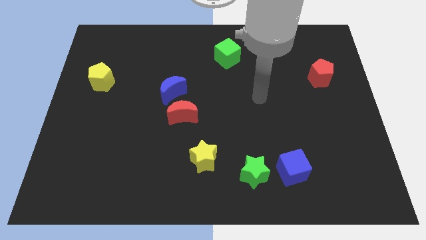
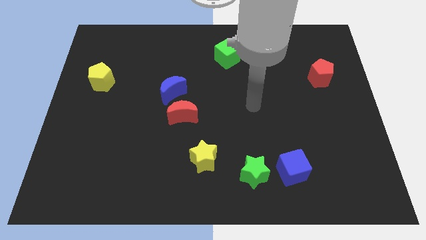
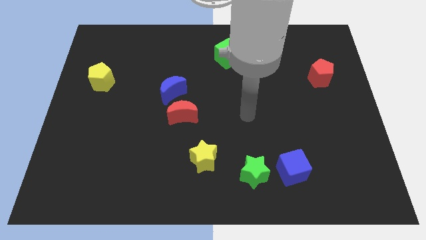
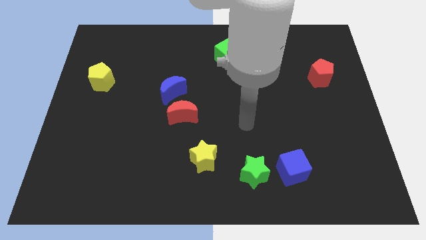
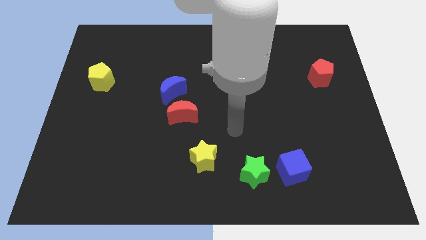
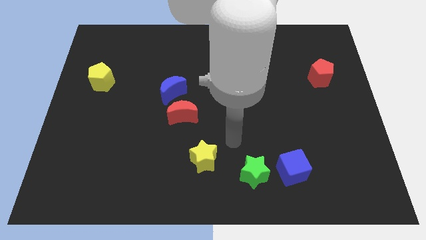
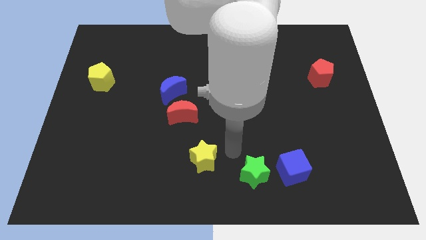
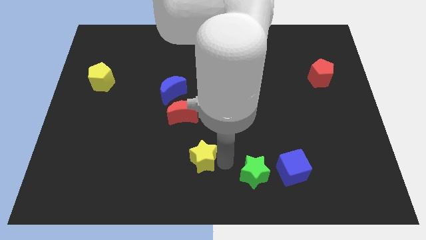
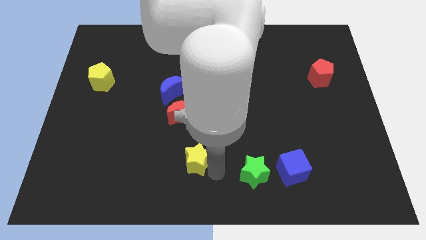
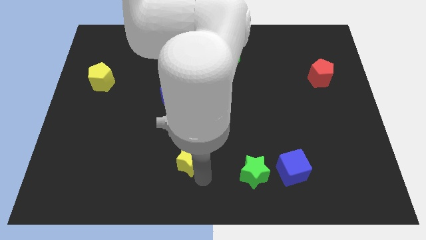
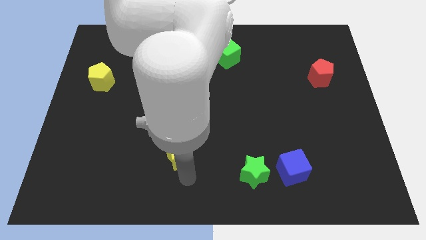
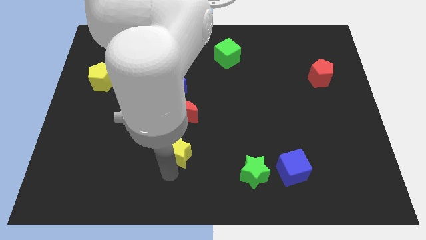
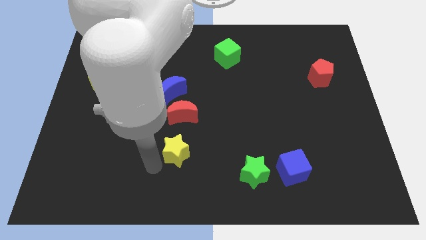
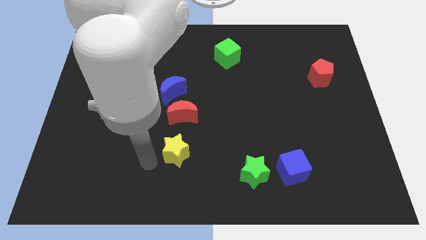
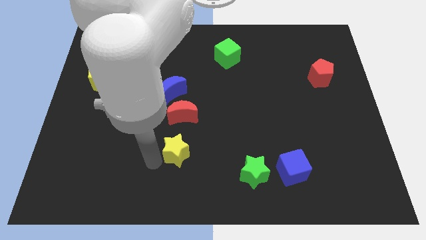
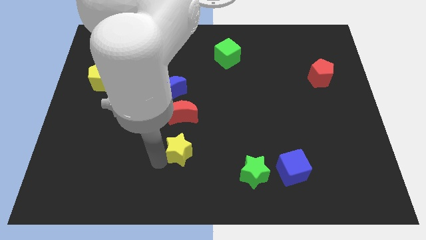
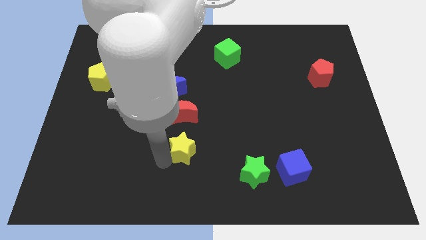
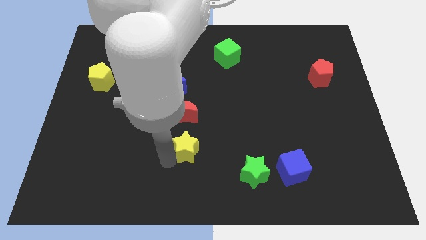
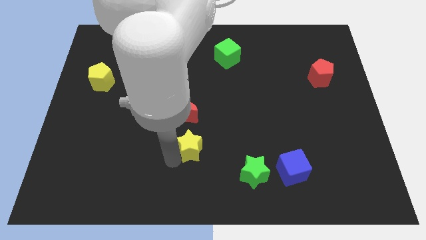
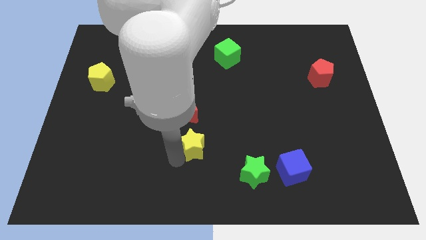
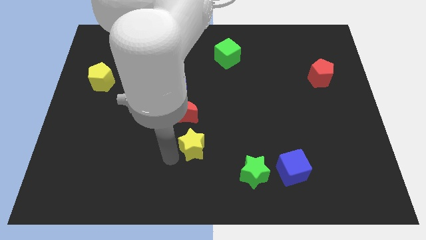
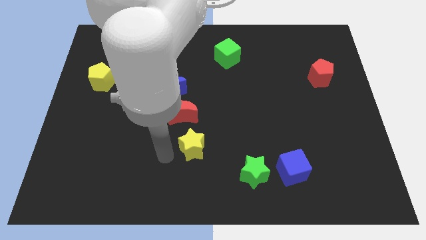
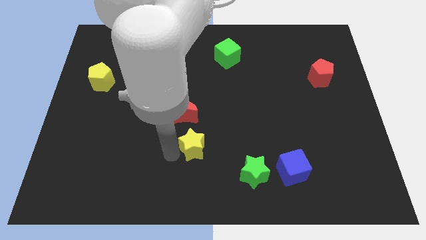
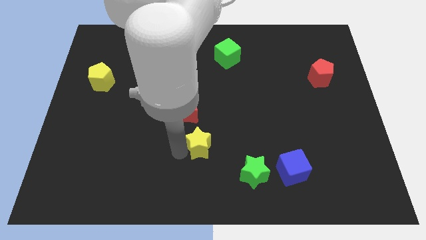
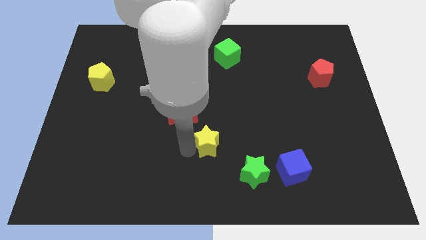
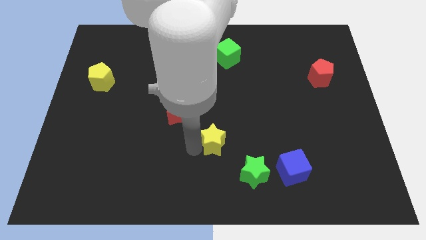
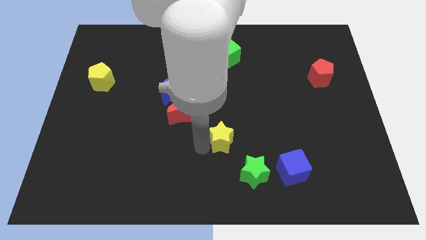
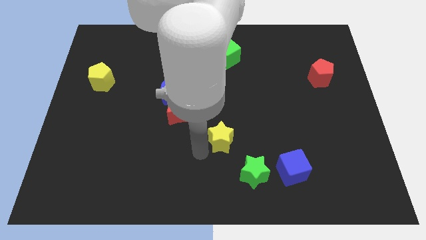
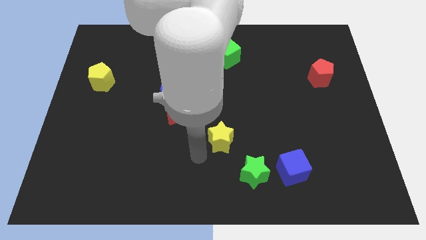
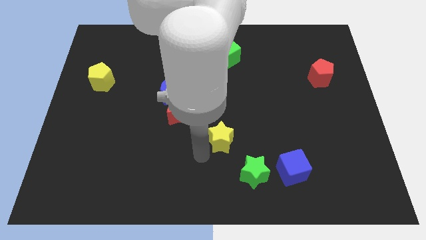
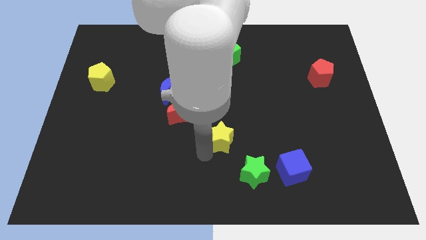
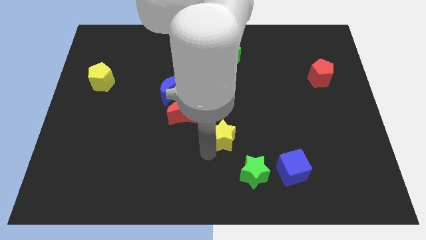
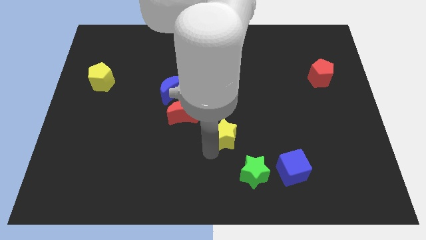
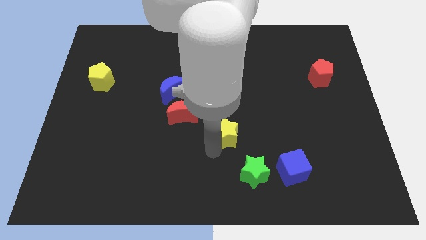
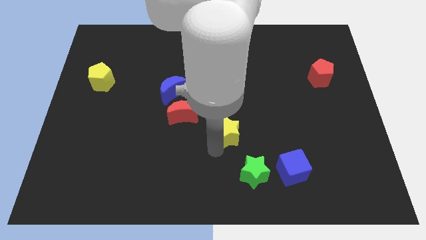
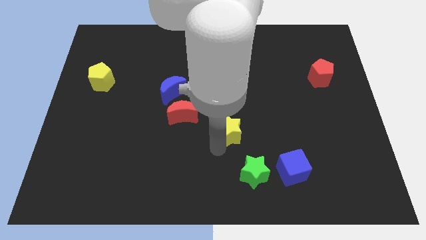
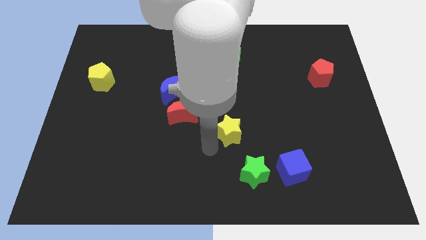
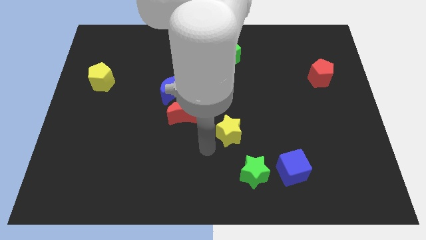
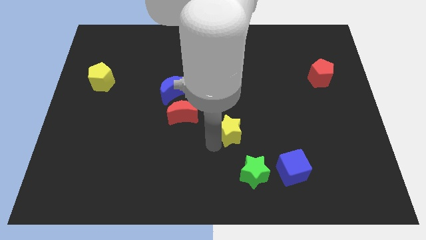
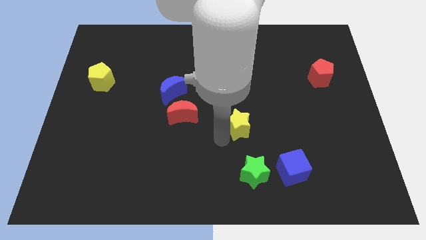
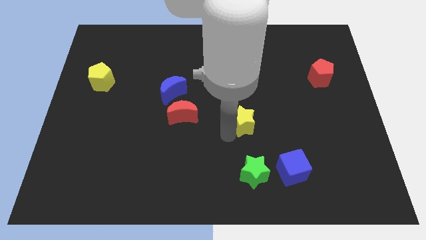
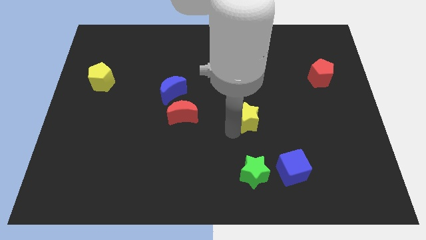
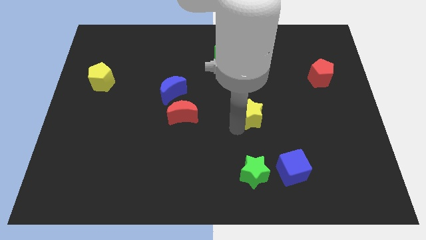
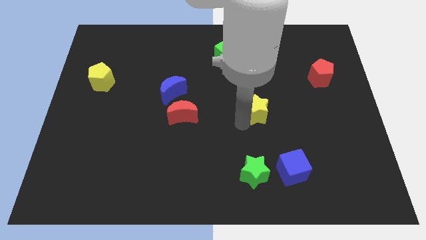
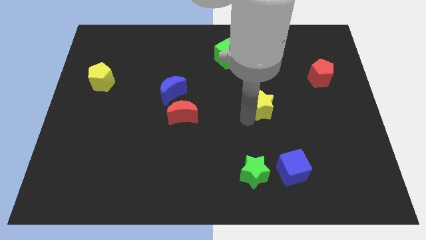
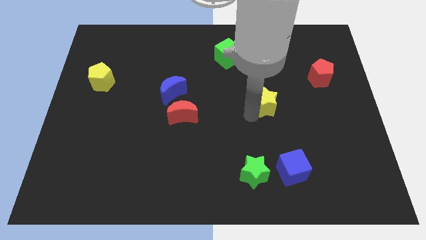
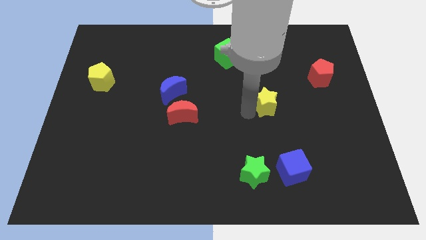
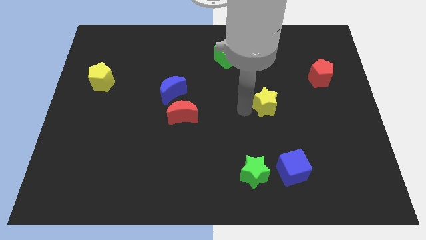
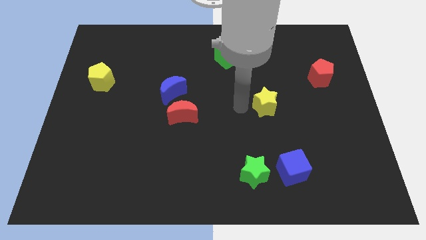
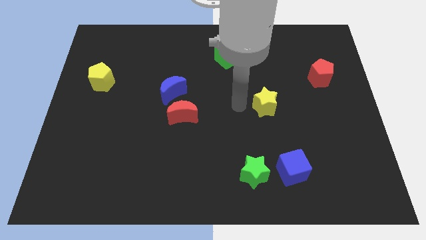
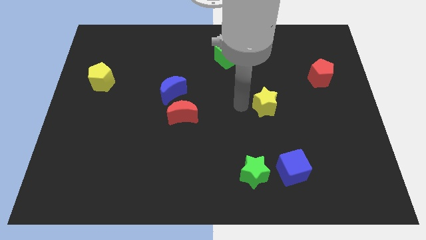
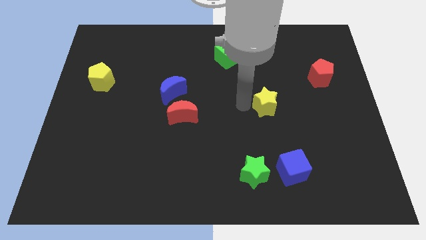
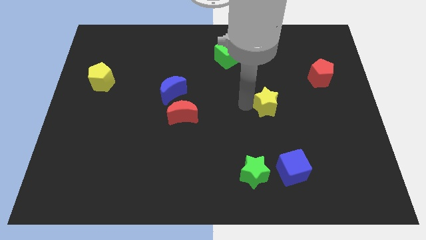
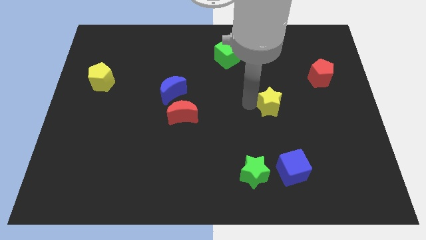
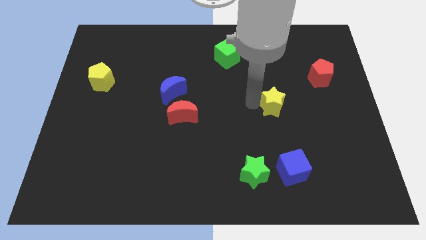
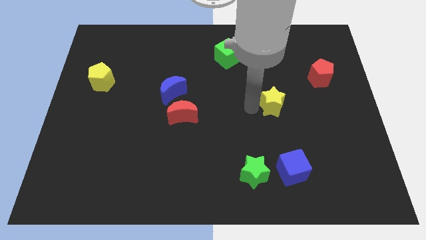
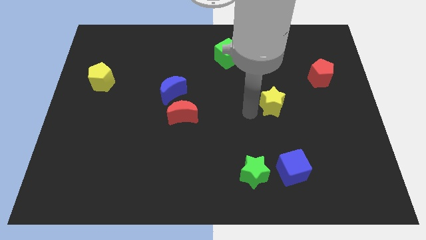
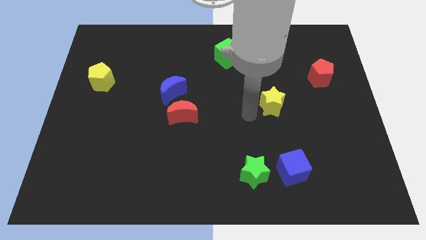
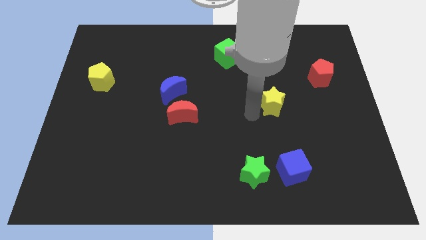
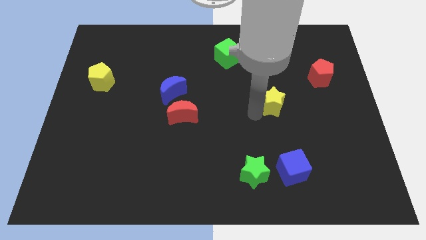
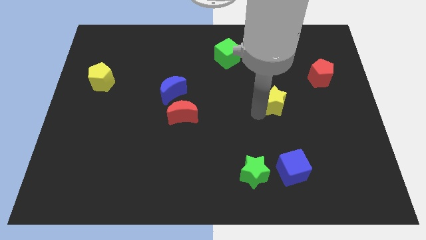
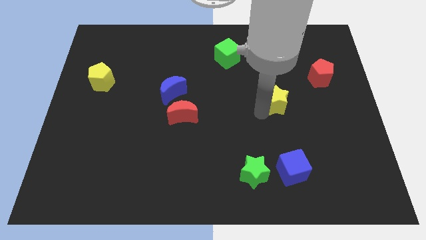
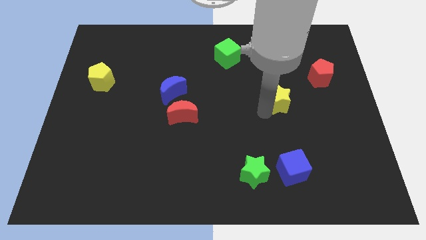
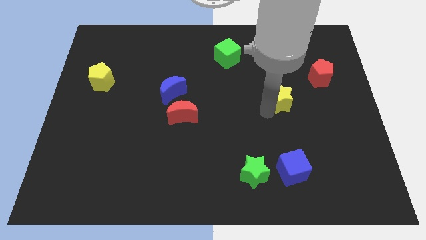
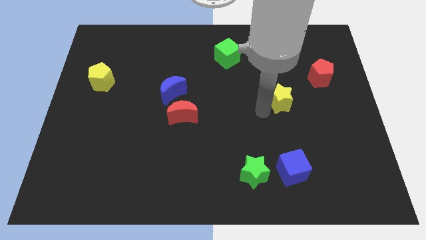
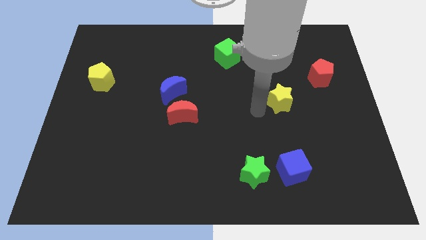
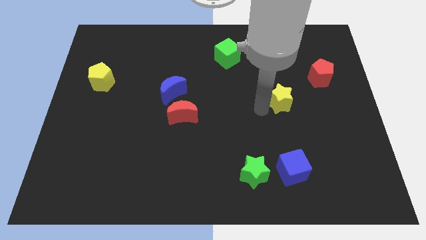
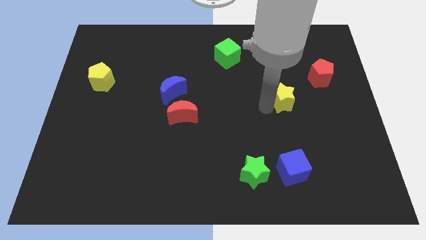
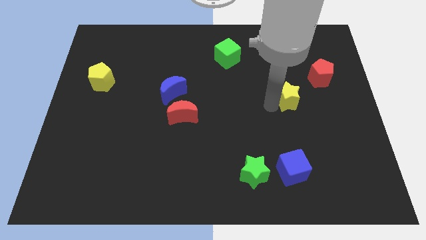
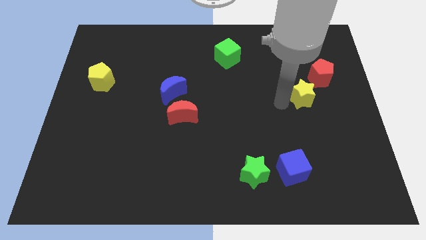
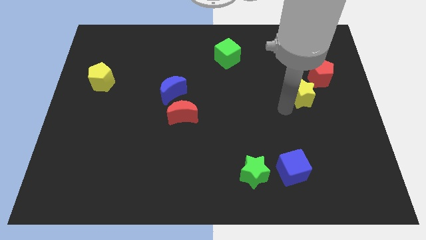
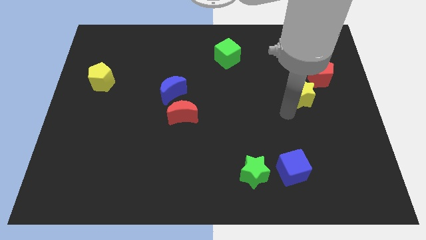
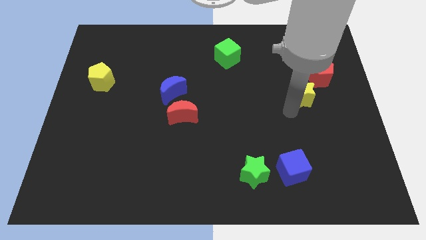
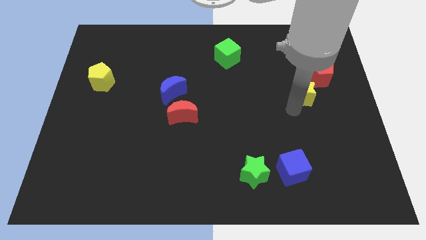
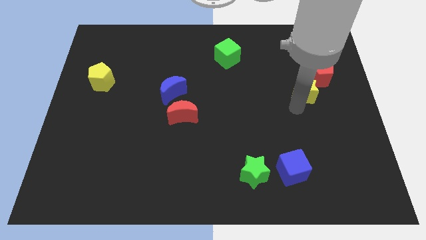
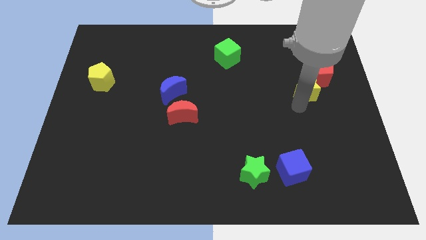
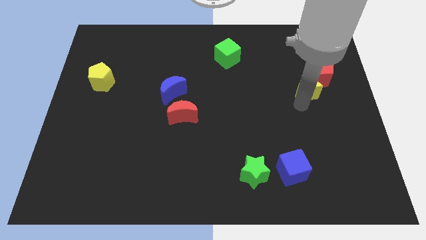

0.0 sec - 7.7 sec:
move the yellow star close to the red pentagon
